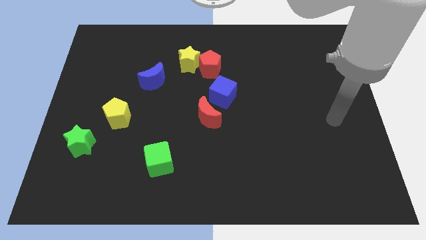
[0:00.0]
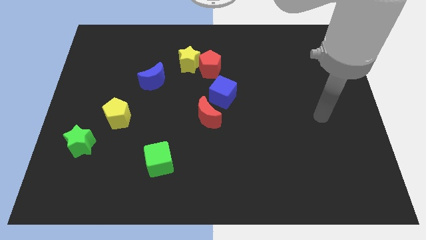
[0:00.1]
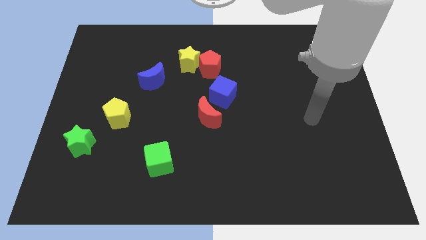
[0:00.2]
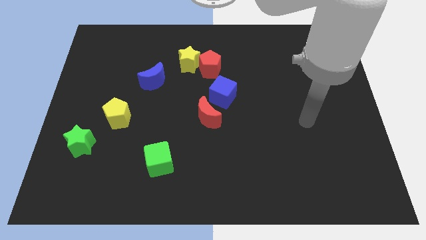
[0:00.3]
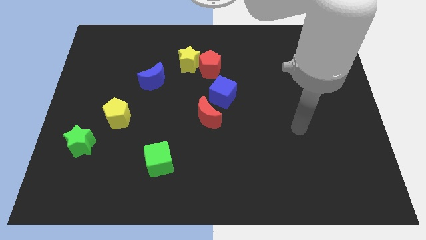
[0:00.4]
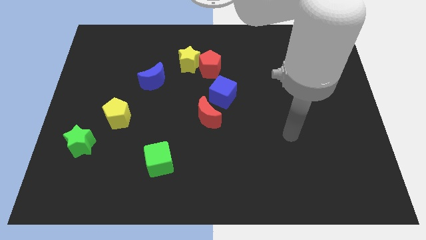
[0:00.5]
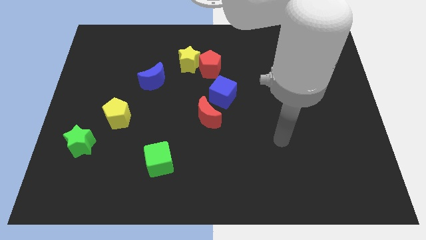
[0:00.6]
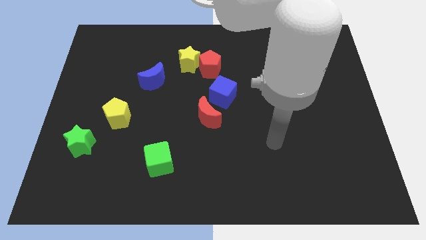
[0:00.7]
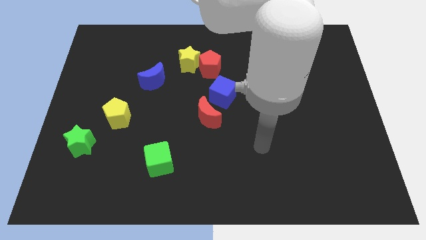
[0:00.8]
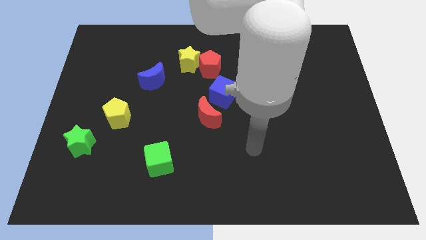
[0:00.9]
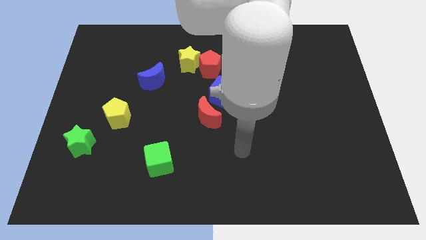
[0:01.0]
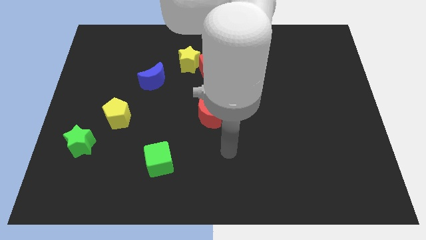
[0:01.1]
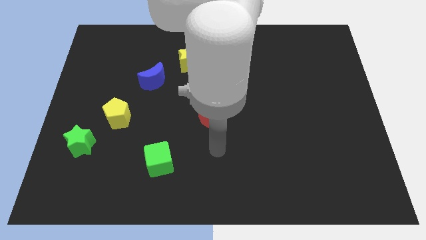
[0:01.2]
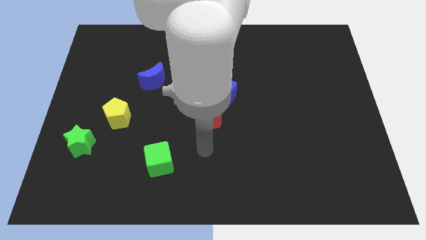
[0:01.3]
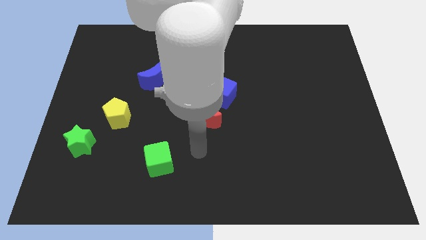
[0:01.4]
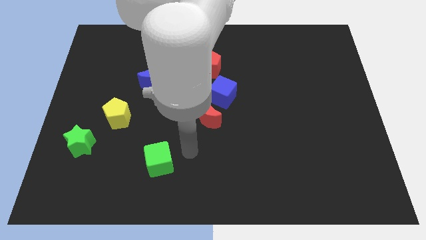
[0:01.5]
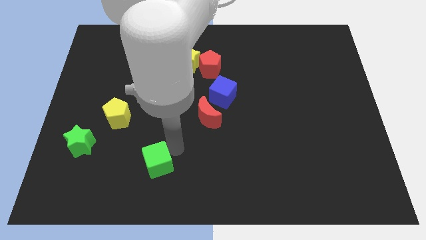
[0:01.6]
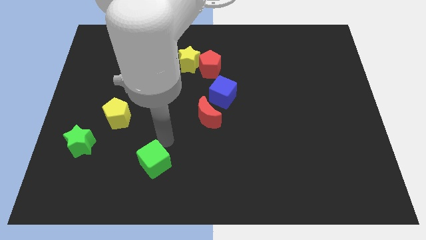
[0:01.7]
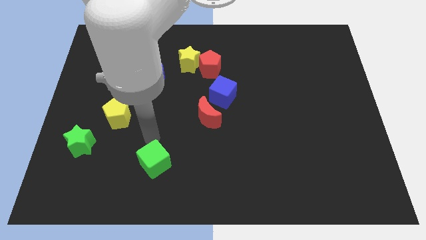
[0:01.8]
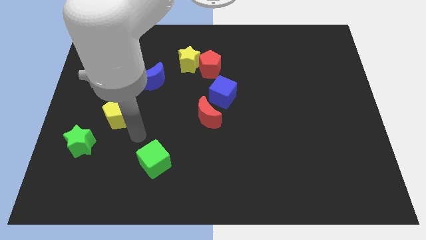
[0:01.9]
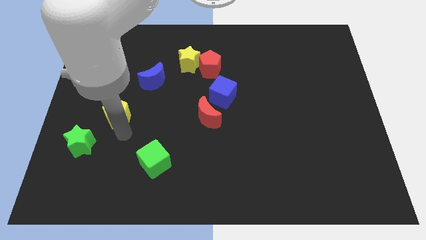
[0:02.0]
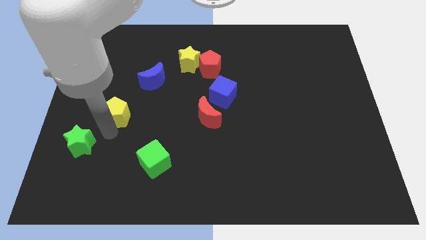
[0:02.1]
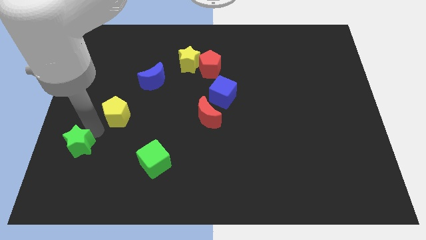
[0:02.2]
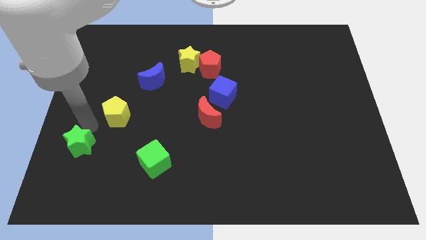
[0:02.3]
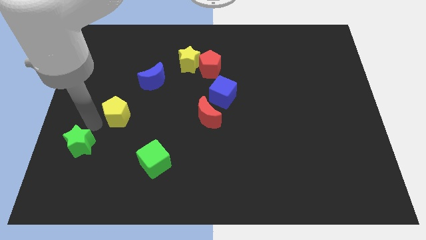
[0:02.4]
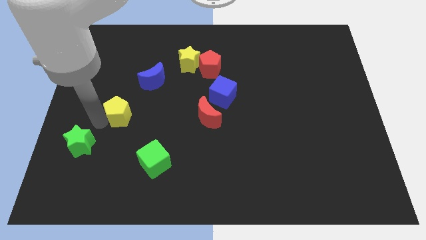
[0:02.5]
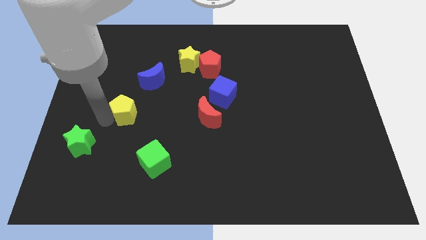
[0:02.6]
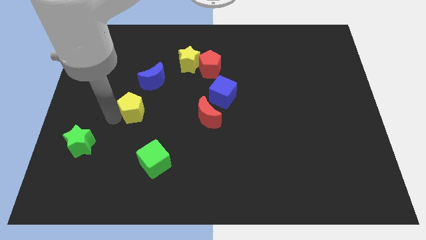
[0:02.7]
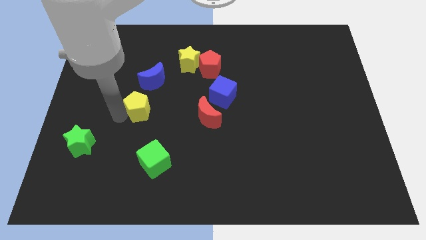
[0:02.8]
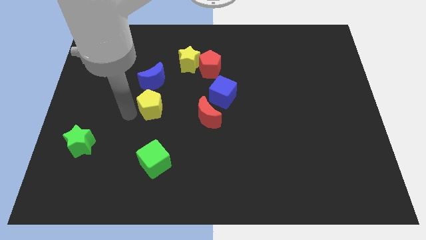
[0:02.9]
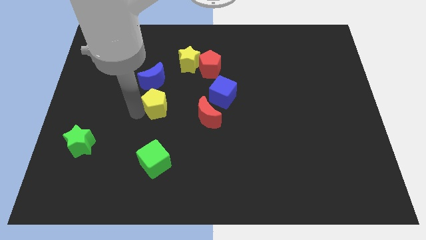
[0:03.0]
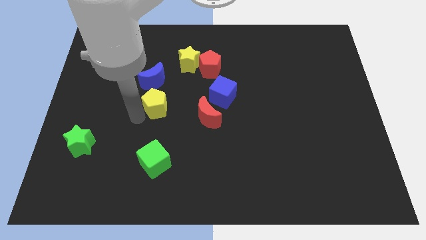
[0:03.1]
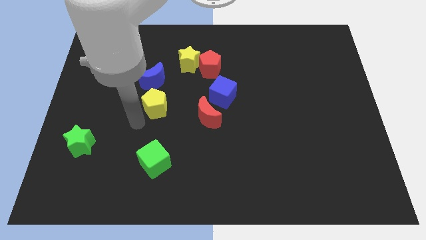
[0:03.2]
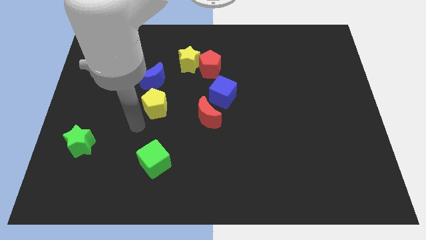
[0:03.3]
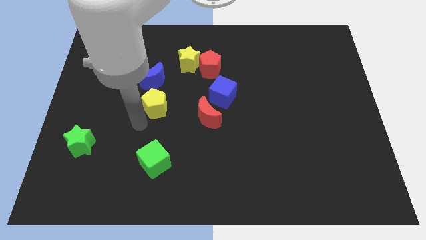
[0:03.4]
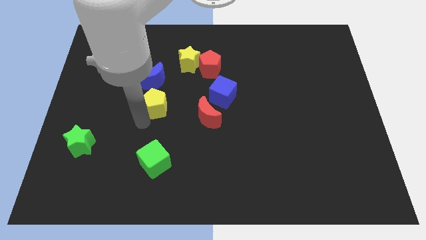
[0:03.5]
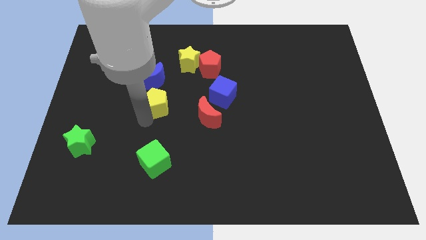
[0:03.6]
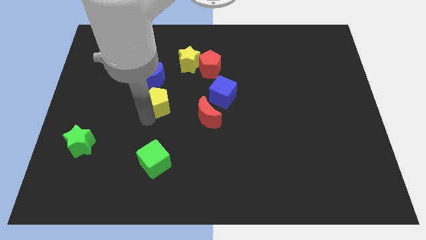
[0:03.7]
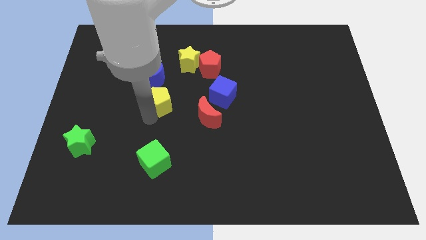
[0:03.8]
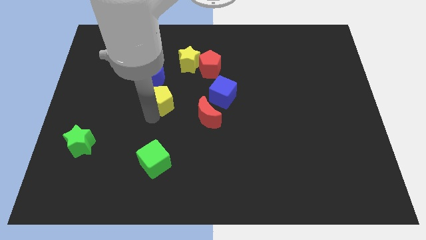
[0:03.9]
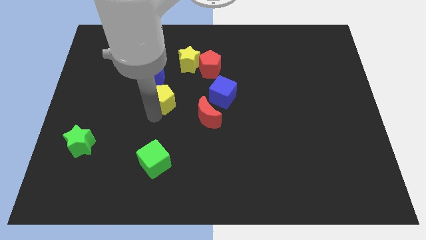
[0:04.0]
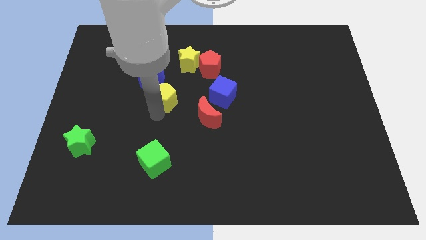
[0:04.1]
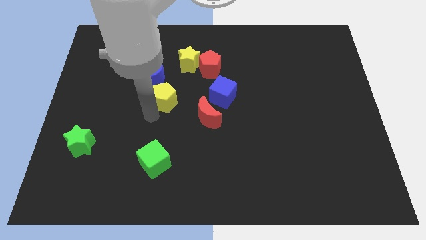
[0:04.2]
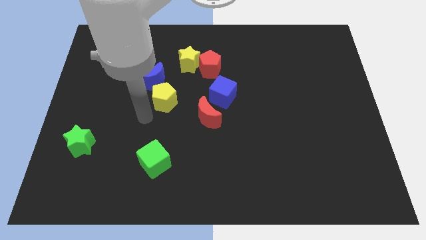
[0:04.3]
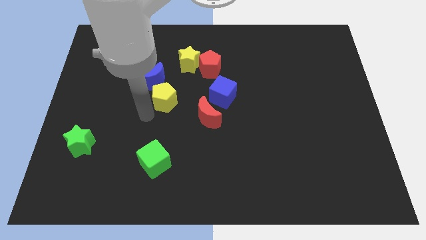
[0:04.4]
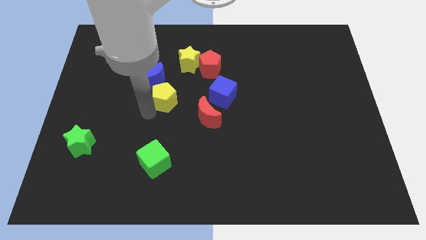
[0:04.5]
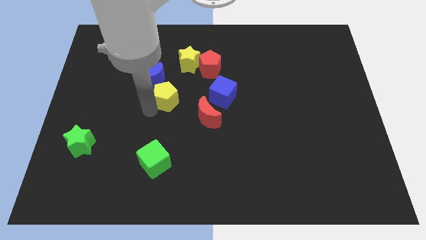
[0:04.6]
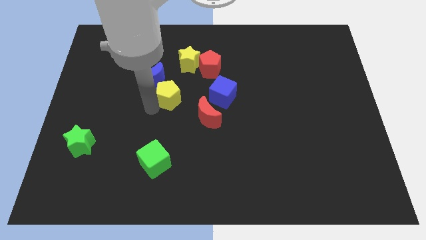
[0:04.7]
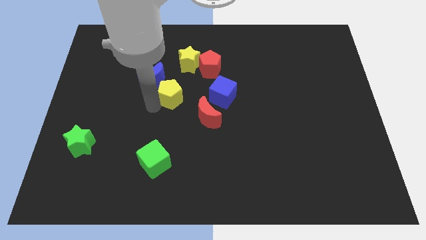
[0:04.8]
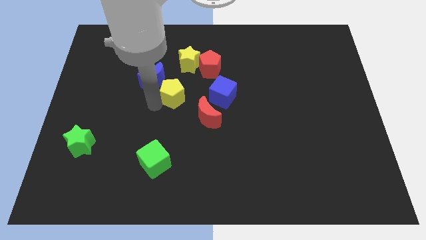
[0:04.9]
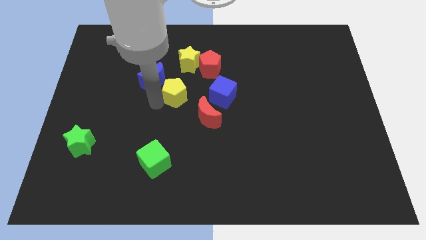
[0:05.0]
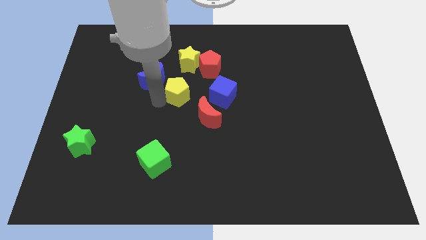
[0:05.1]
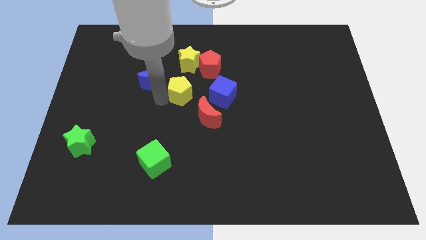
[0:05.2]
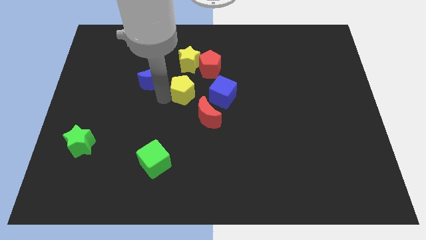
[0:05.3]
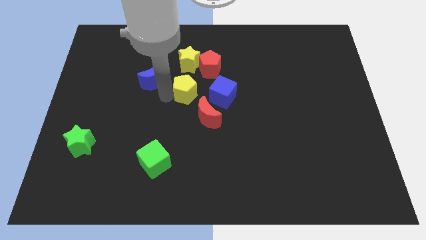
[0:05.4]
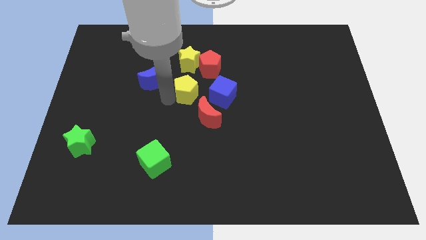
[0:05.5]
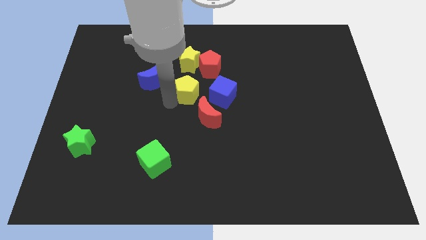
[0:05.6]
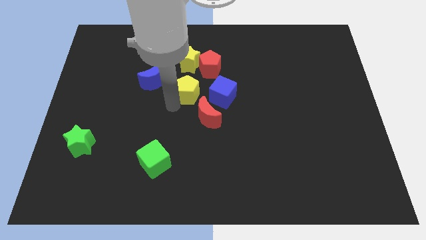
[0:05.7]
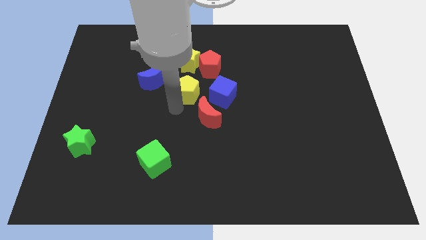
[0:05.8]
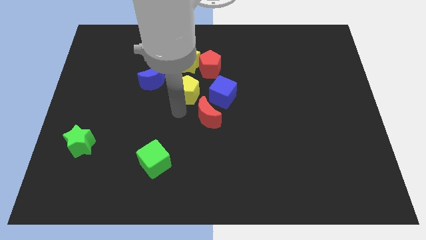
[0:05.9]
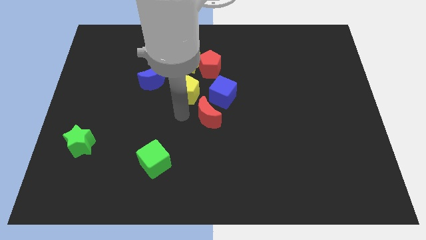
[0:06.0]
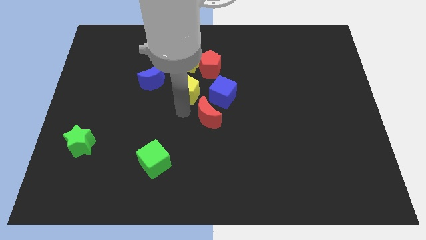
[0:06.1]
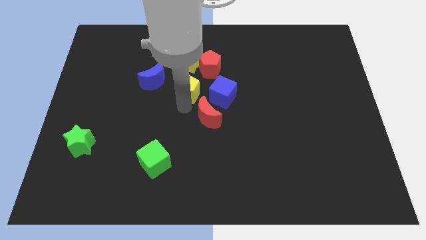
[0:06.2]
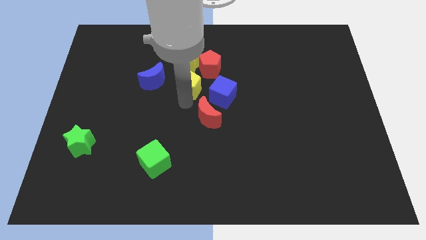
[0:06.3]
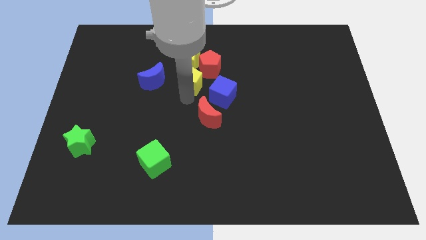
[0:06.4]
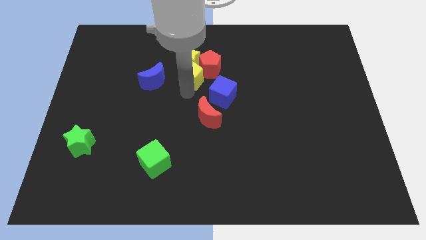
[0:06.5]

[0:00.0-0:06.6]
move the yellow pentagon towards the red pentagon

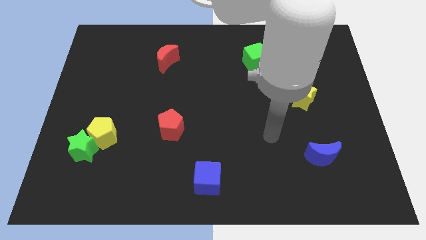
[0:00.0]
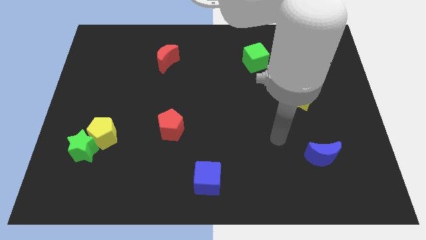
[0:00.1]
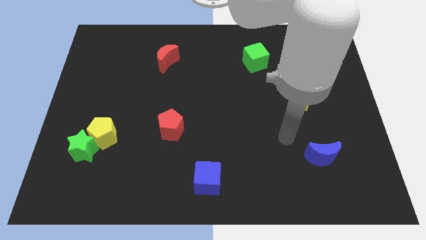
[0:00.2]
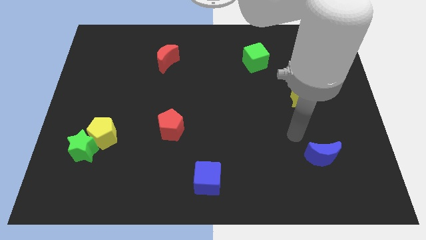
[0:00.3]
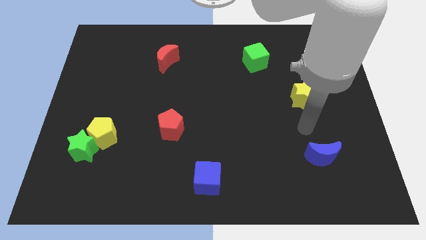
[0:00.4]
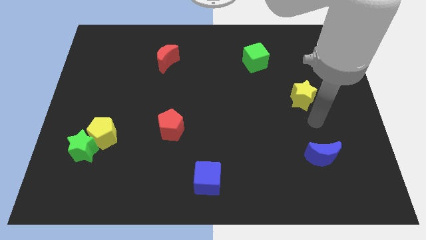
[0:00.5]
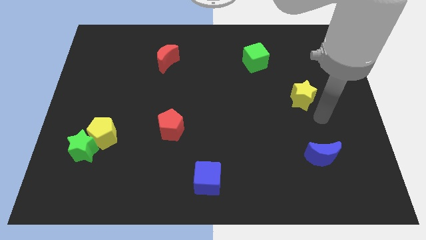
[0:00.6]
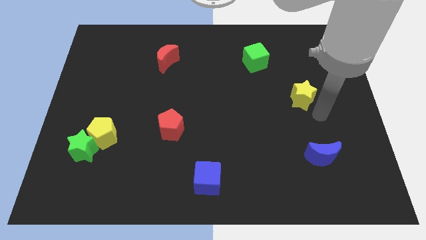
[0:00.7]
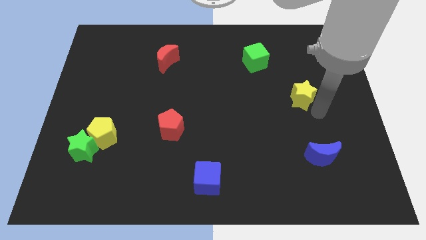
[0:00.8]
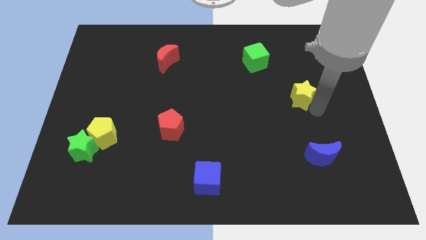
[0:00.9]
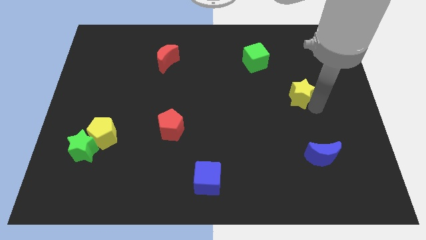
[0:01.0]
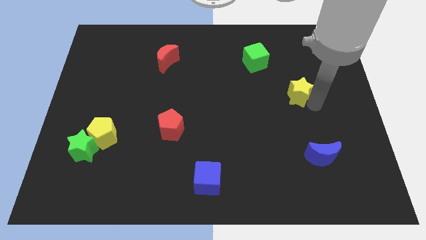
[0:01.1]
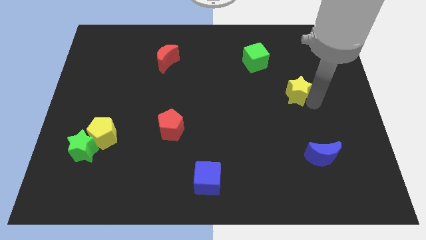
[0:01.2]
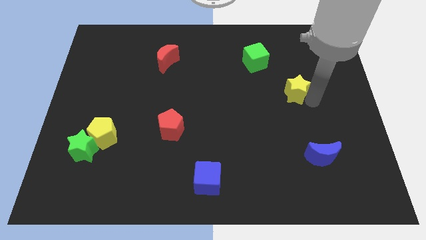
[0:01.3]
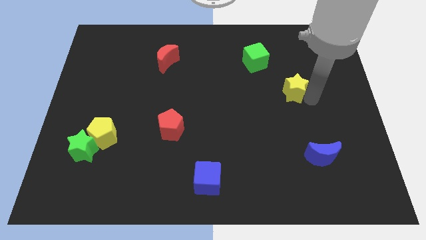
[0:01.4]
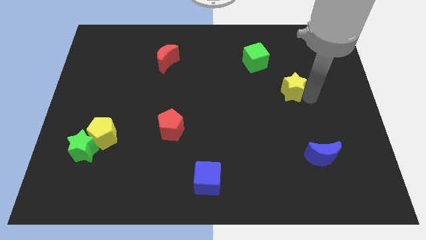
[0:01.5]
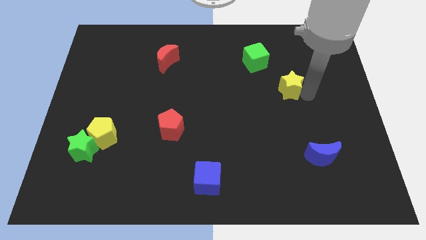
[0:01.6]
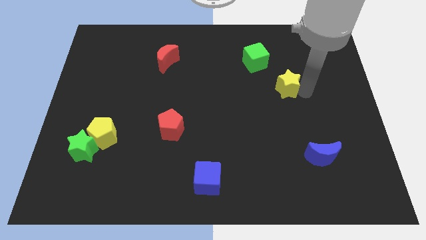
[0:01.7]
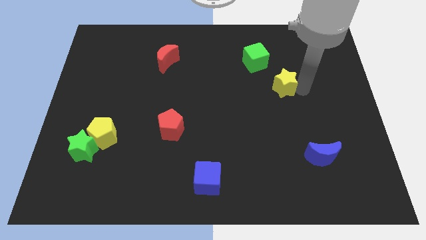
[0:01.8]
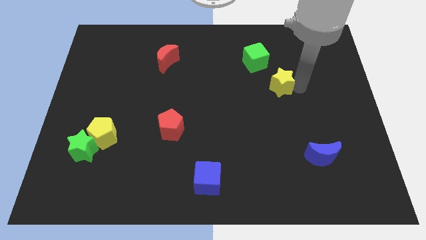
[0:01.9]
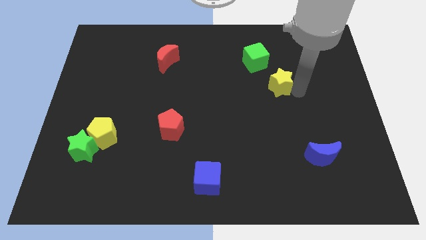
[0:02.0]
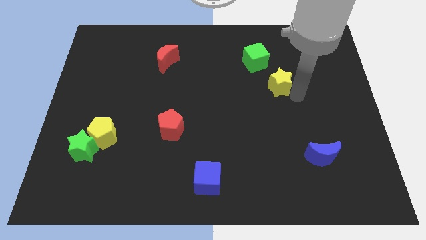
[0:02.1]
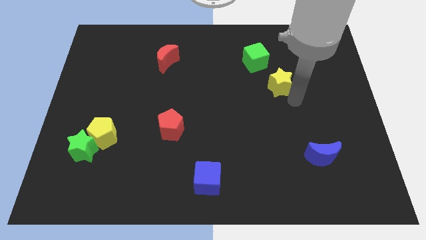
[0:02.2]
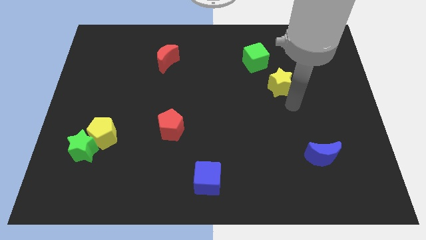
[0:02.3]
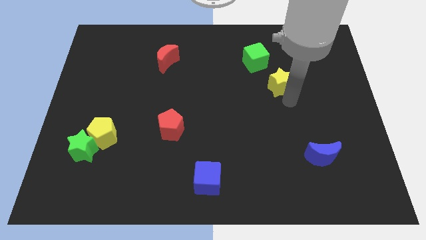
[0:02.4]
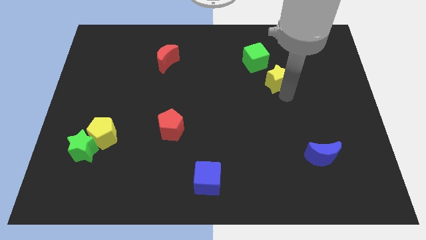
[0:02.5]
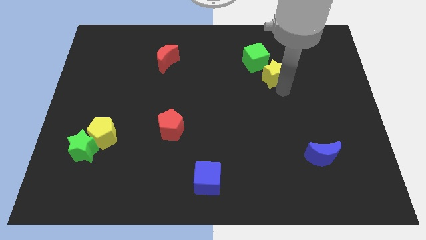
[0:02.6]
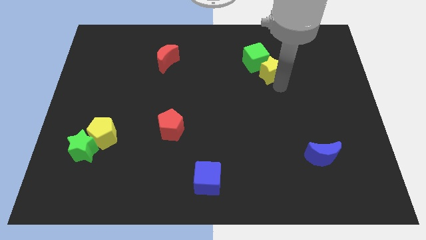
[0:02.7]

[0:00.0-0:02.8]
put the yellow star next to the green cube
